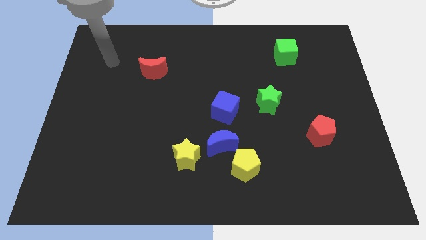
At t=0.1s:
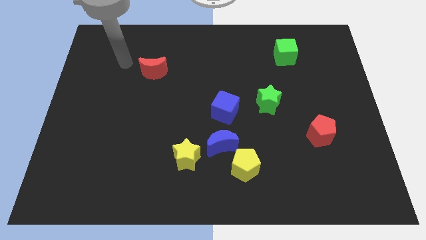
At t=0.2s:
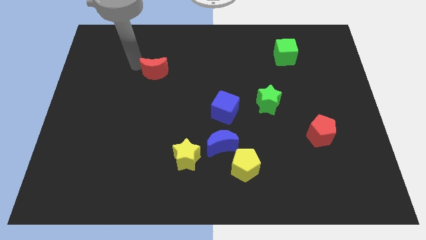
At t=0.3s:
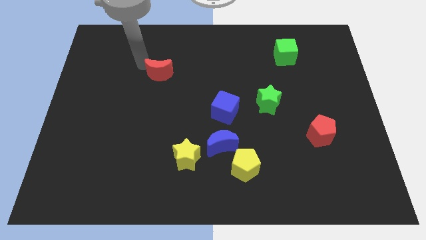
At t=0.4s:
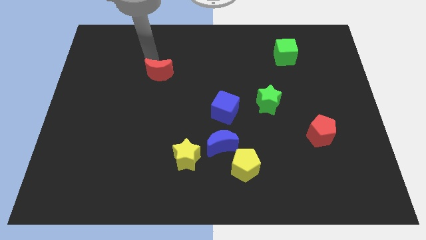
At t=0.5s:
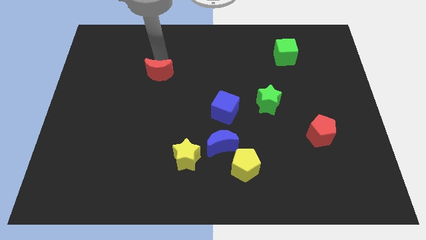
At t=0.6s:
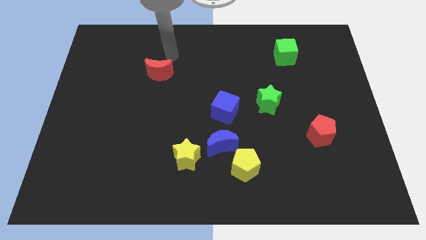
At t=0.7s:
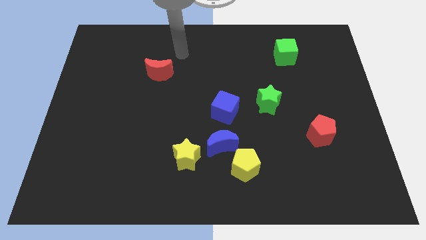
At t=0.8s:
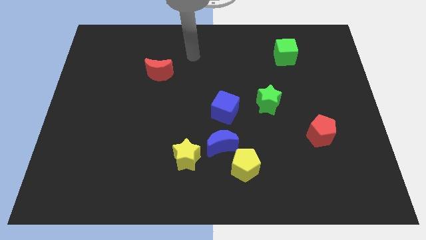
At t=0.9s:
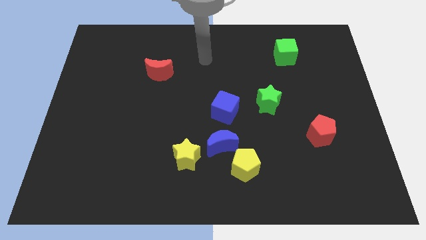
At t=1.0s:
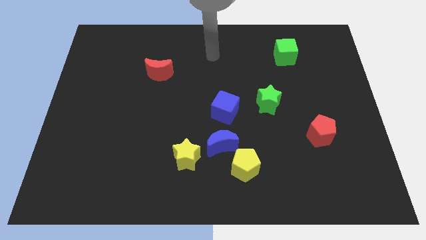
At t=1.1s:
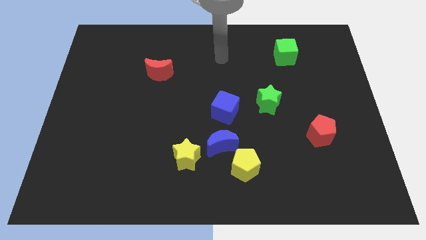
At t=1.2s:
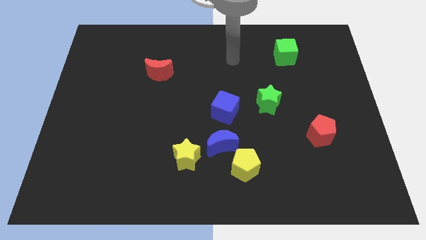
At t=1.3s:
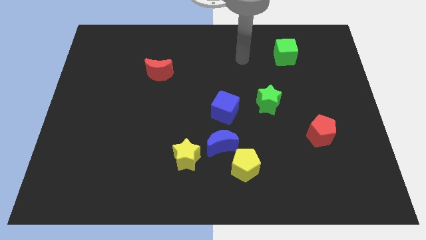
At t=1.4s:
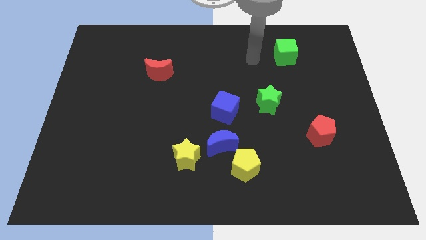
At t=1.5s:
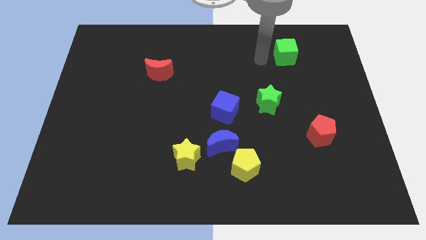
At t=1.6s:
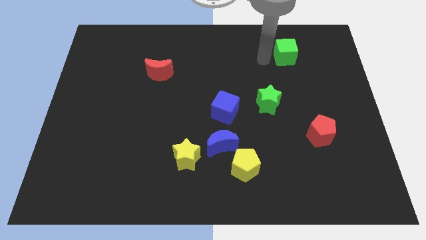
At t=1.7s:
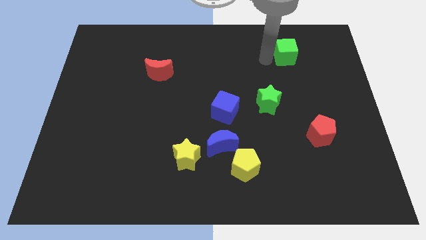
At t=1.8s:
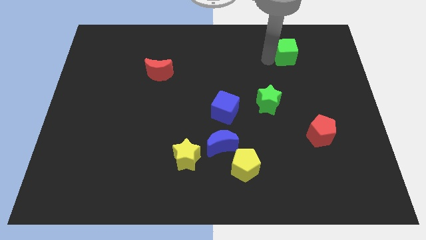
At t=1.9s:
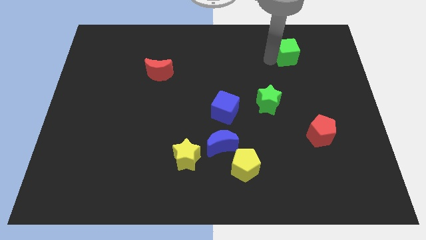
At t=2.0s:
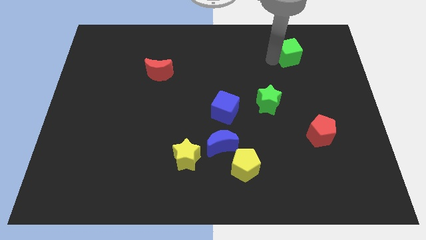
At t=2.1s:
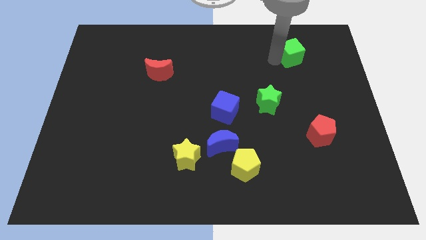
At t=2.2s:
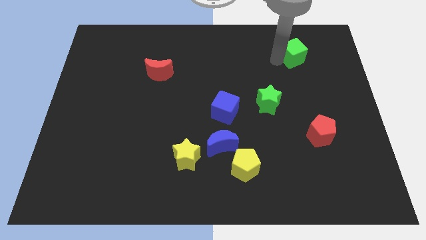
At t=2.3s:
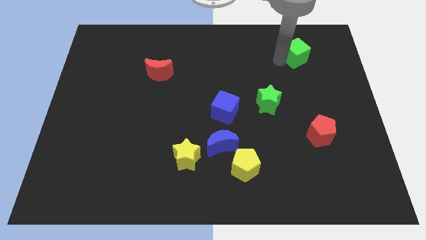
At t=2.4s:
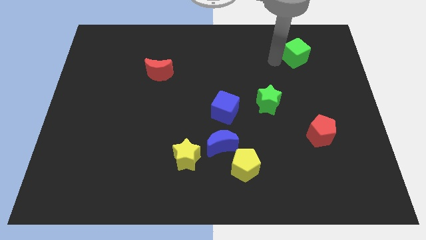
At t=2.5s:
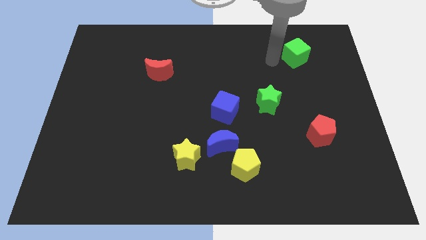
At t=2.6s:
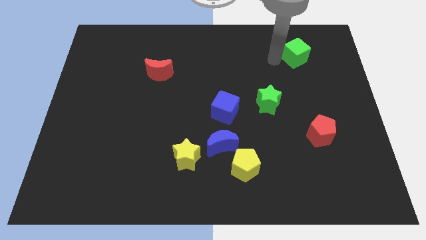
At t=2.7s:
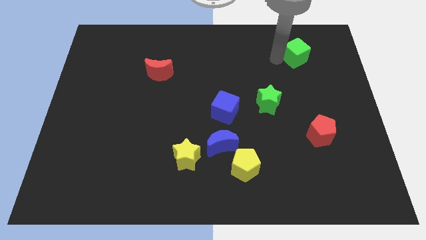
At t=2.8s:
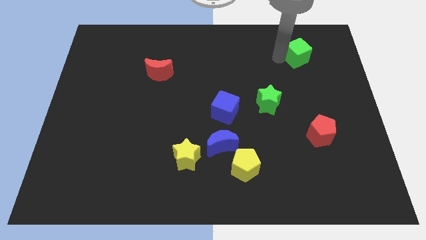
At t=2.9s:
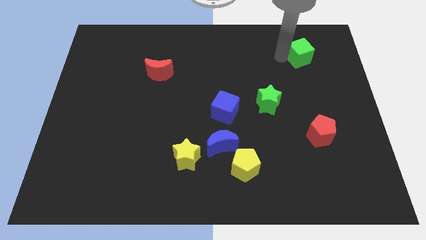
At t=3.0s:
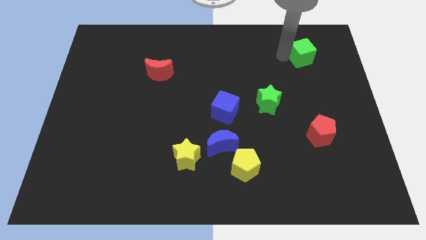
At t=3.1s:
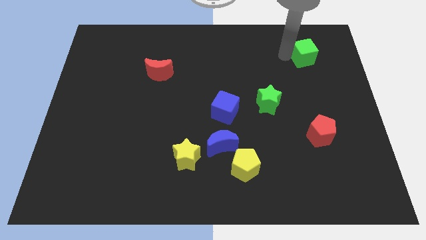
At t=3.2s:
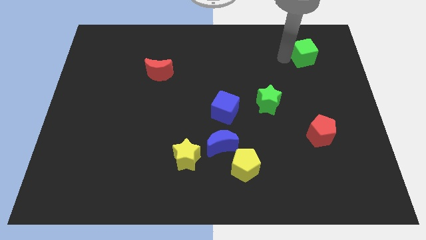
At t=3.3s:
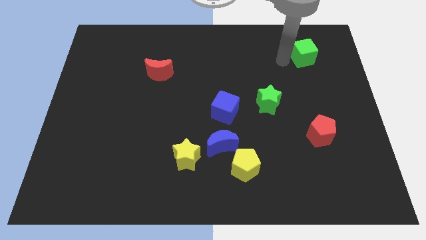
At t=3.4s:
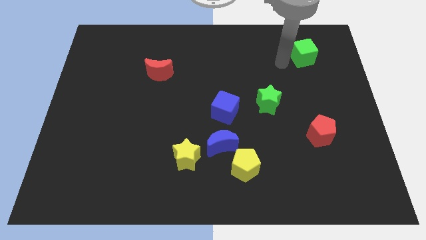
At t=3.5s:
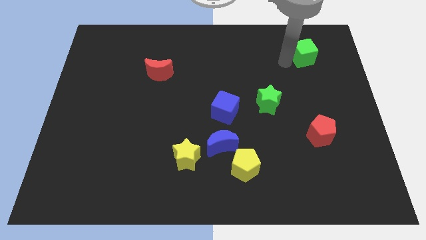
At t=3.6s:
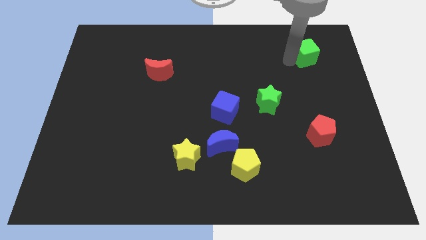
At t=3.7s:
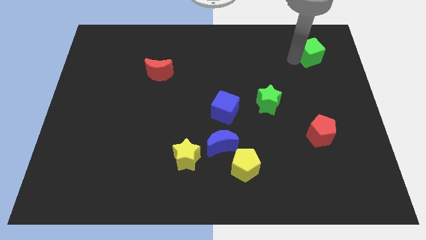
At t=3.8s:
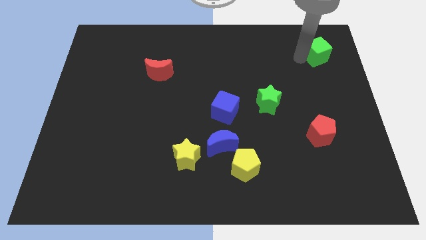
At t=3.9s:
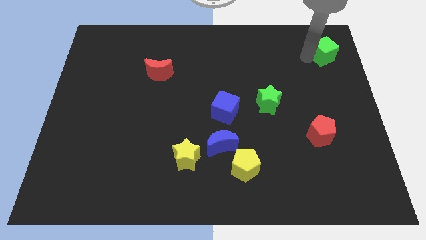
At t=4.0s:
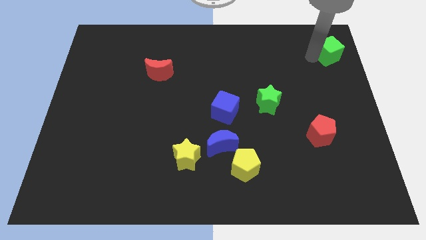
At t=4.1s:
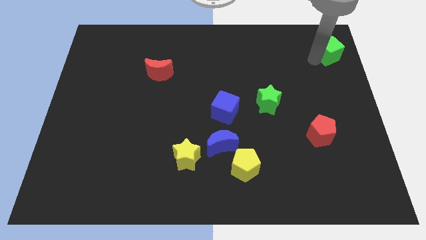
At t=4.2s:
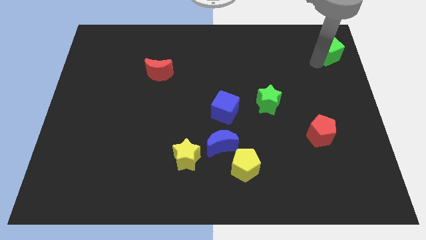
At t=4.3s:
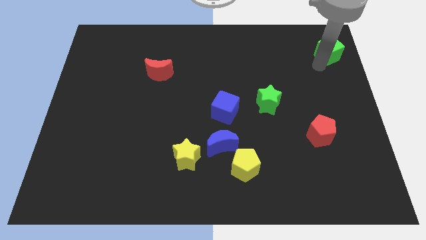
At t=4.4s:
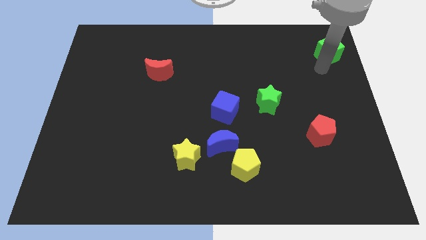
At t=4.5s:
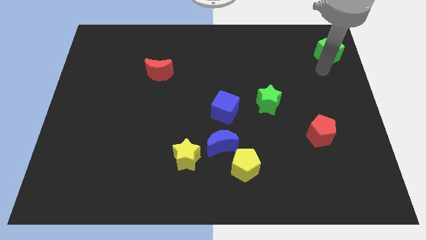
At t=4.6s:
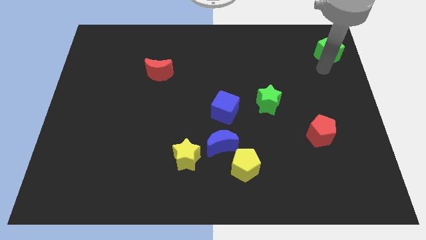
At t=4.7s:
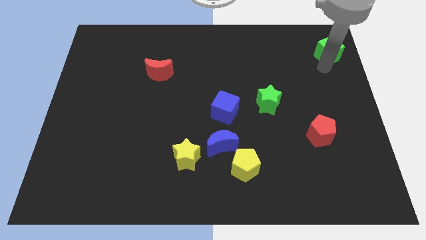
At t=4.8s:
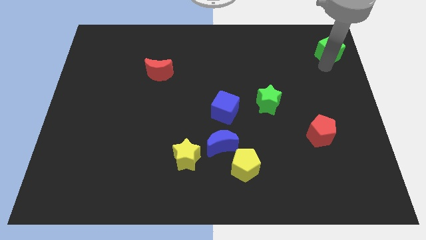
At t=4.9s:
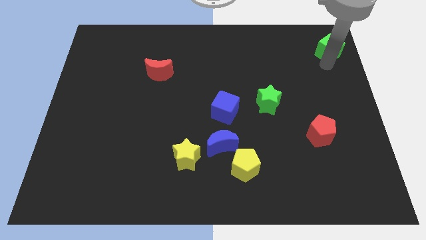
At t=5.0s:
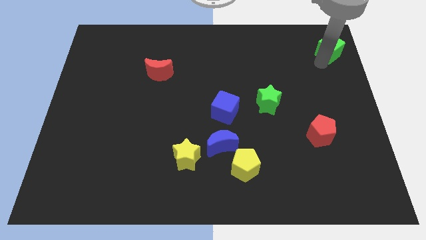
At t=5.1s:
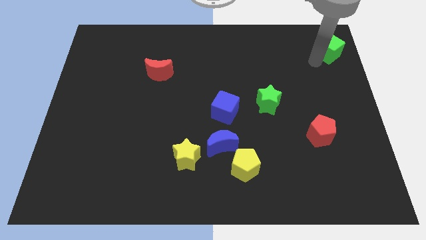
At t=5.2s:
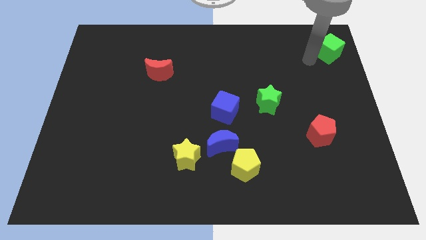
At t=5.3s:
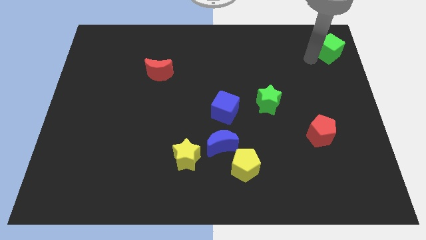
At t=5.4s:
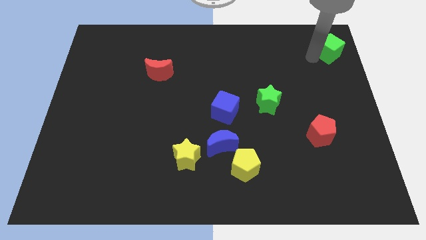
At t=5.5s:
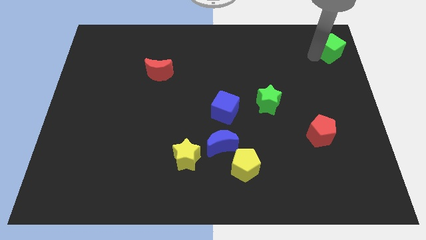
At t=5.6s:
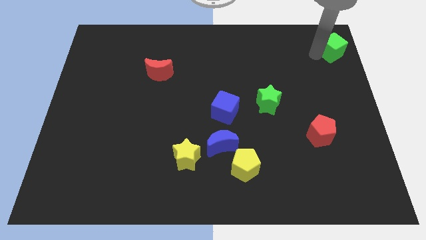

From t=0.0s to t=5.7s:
push the green cube to the top right corner

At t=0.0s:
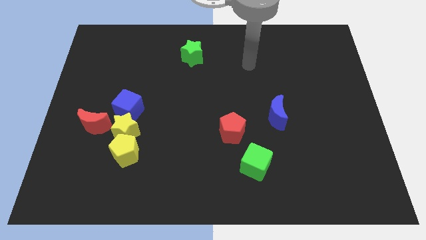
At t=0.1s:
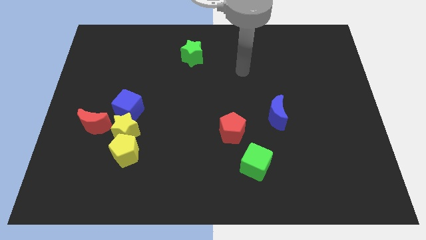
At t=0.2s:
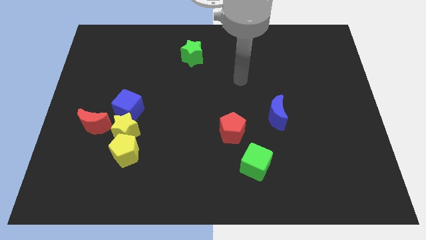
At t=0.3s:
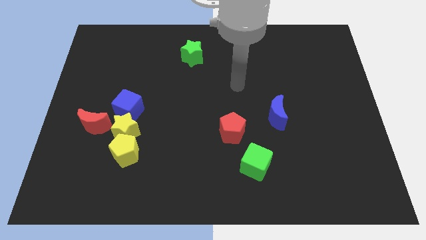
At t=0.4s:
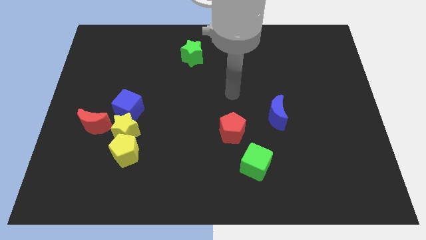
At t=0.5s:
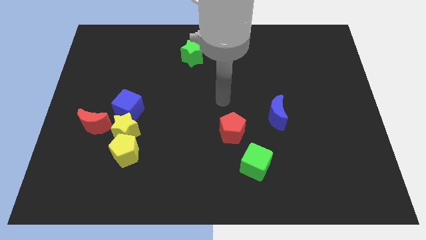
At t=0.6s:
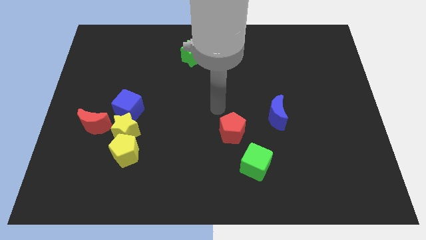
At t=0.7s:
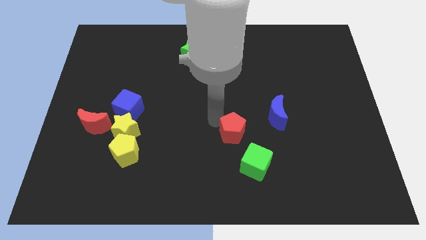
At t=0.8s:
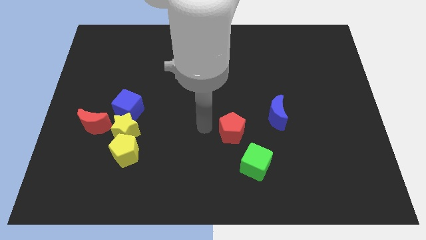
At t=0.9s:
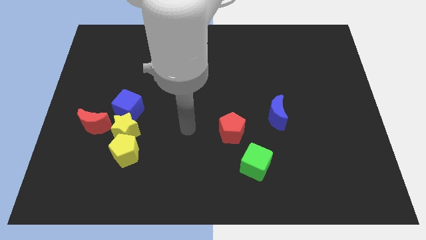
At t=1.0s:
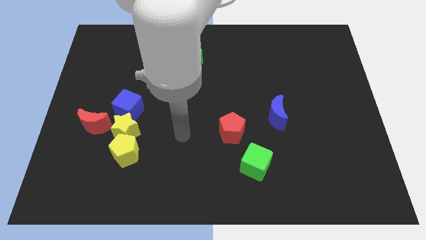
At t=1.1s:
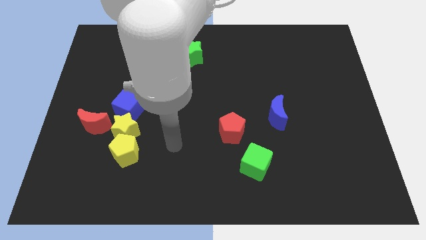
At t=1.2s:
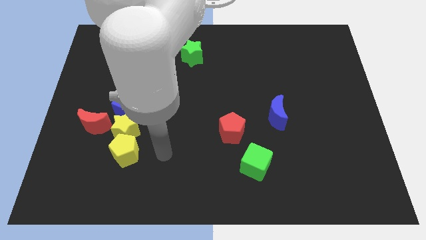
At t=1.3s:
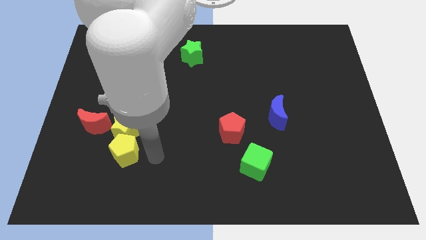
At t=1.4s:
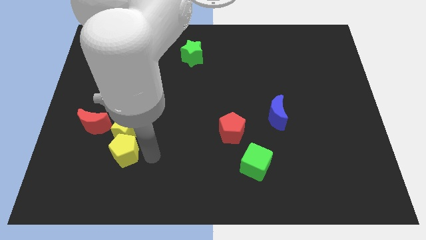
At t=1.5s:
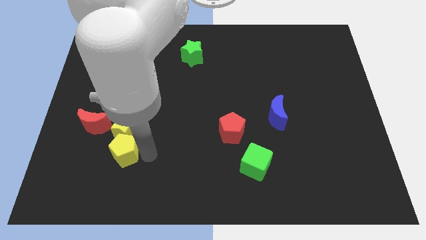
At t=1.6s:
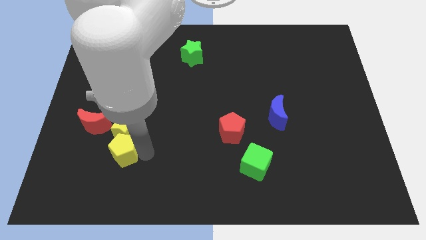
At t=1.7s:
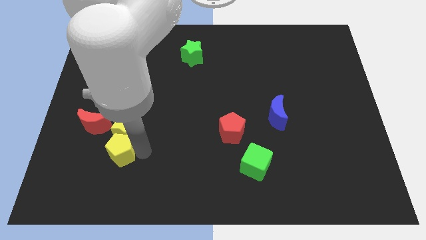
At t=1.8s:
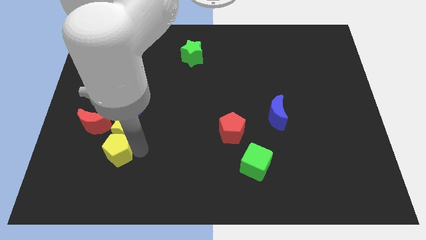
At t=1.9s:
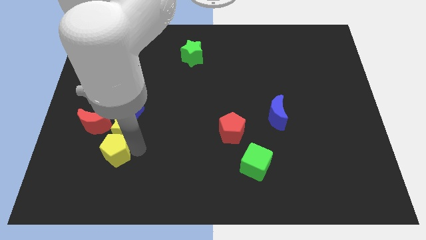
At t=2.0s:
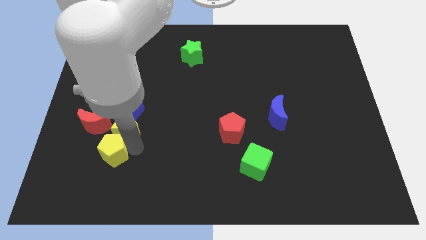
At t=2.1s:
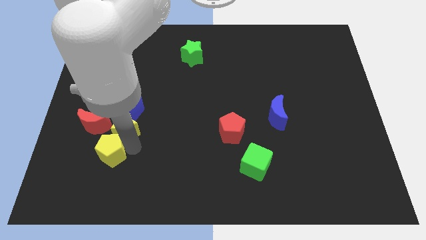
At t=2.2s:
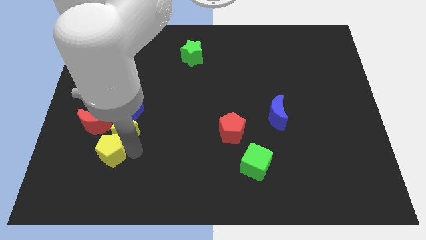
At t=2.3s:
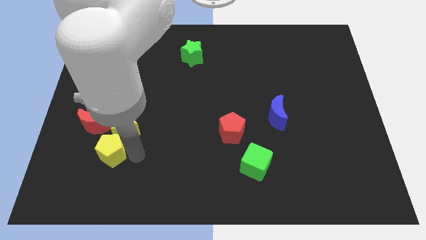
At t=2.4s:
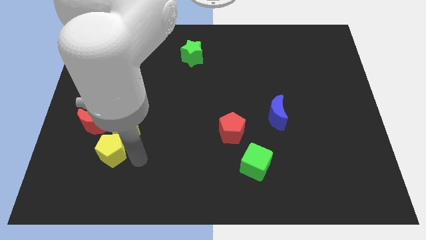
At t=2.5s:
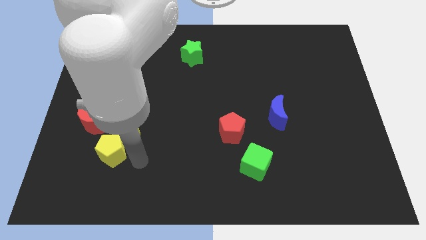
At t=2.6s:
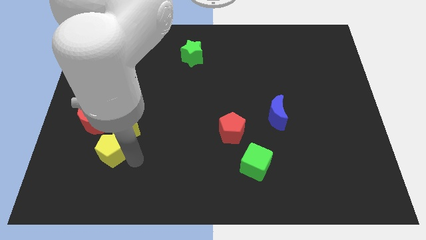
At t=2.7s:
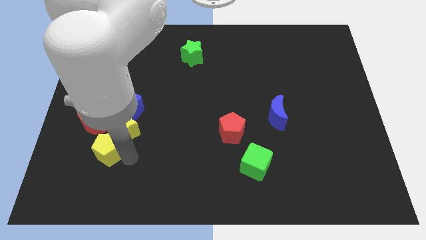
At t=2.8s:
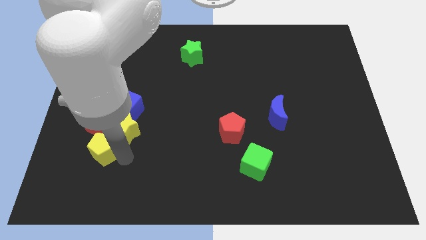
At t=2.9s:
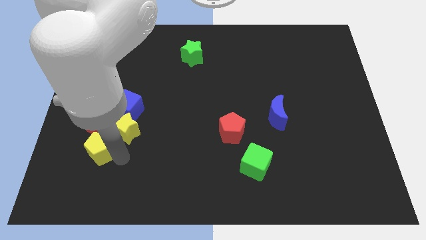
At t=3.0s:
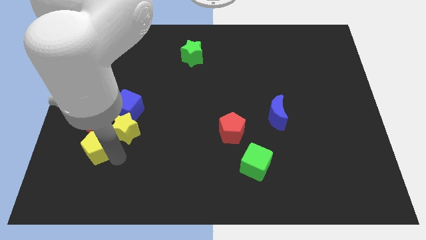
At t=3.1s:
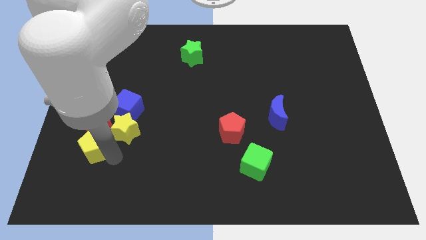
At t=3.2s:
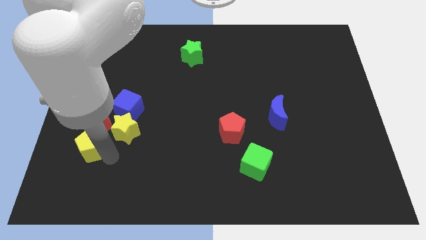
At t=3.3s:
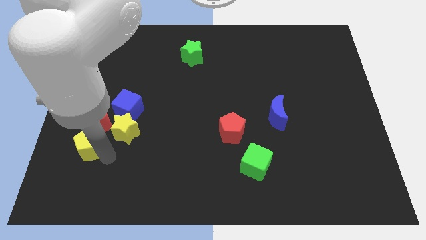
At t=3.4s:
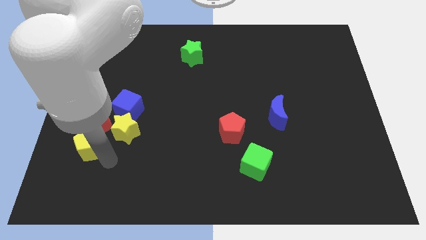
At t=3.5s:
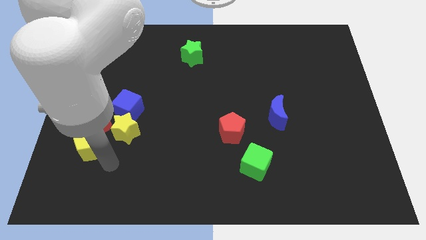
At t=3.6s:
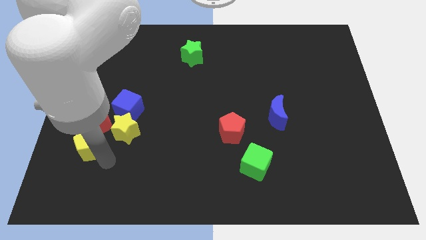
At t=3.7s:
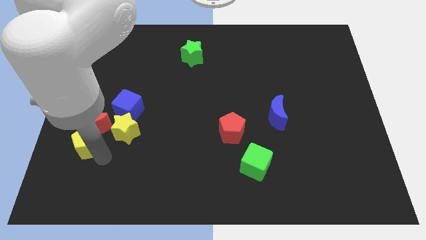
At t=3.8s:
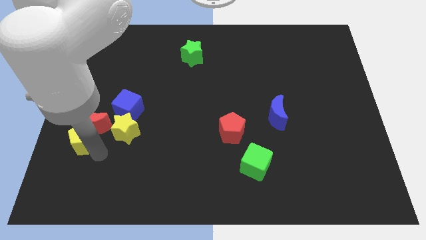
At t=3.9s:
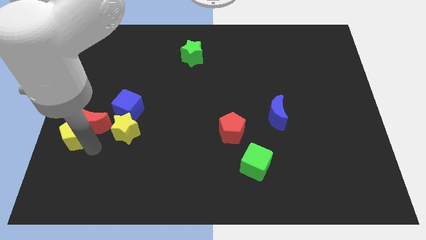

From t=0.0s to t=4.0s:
move the yellow pentagon to the left side
